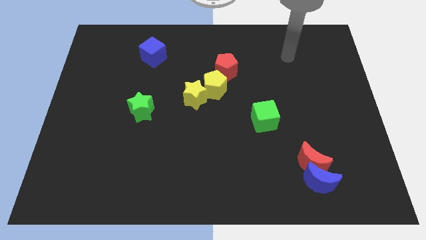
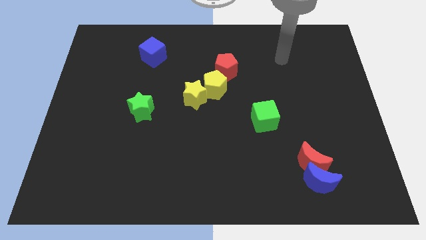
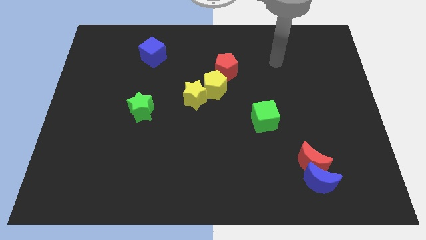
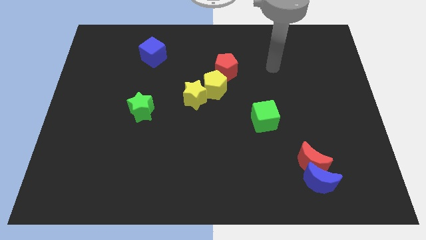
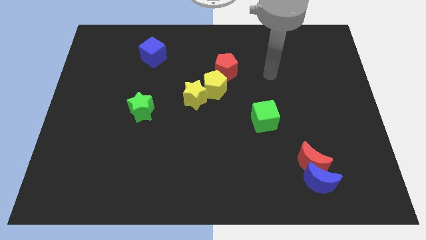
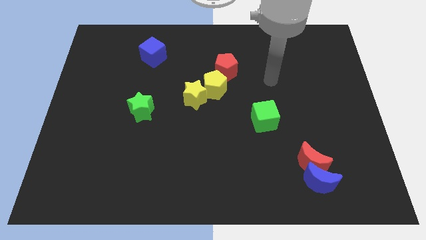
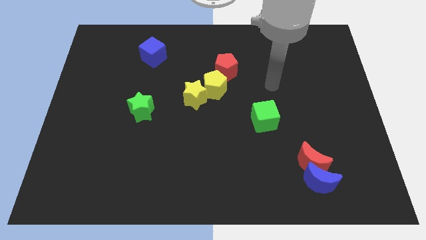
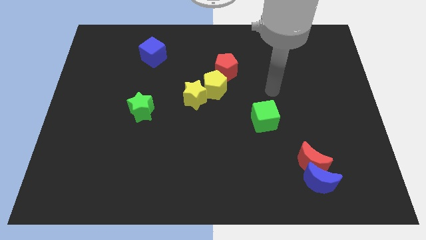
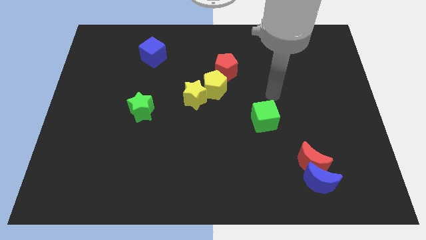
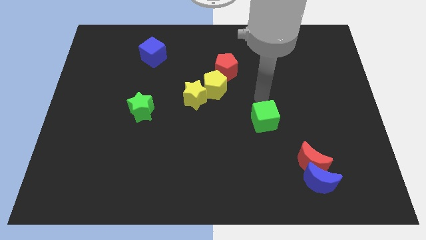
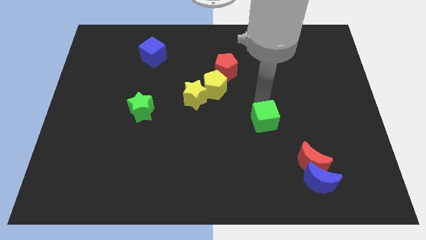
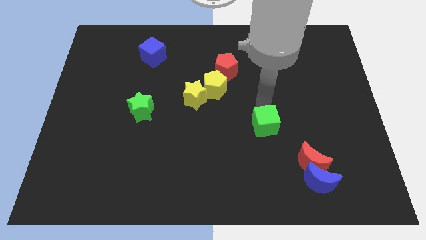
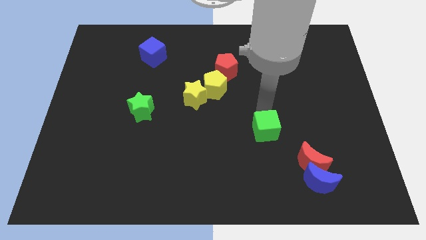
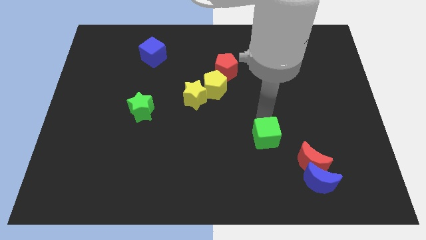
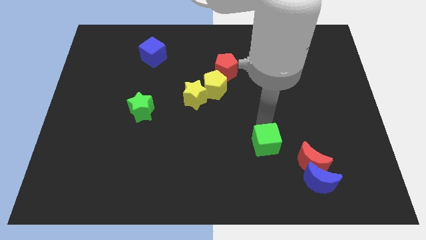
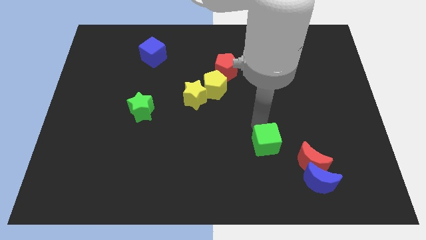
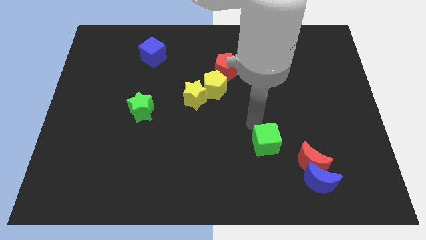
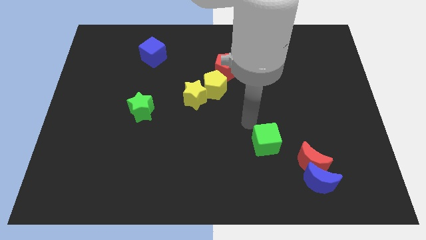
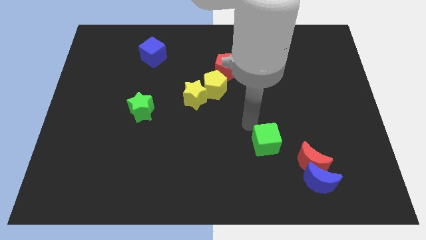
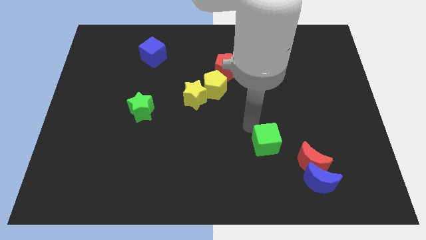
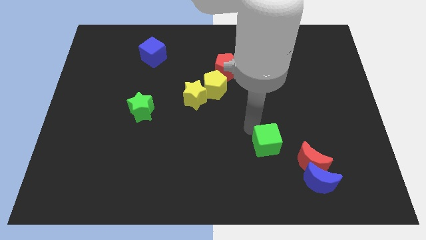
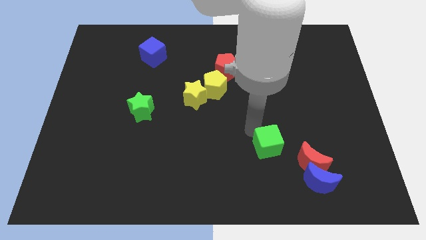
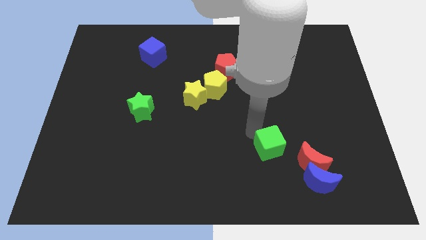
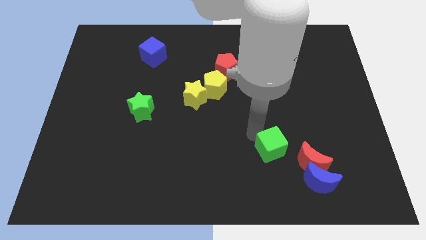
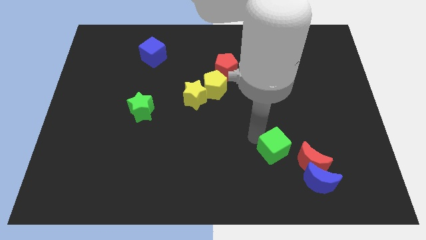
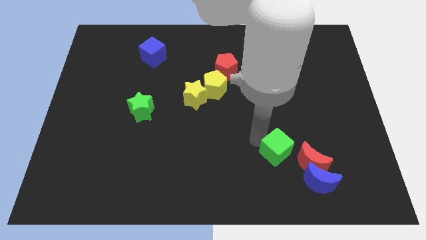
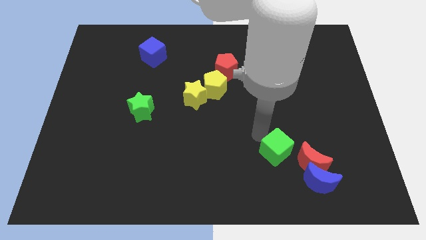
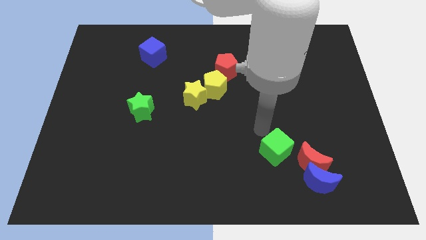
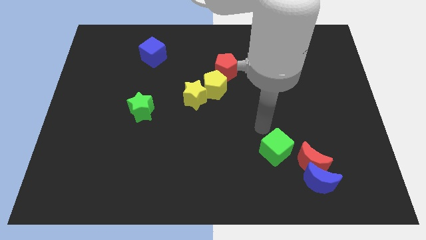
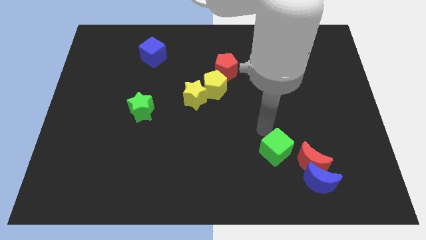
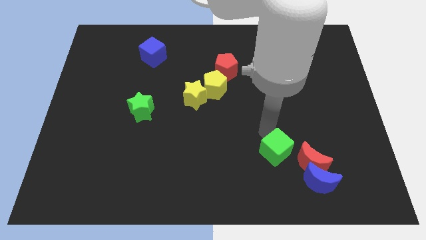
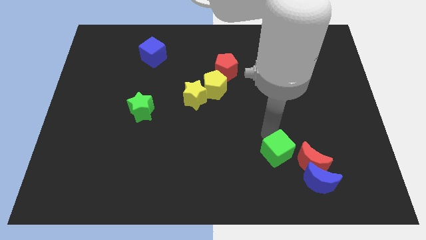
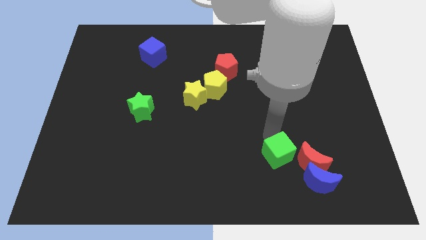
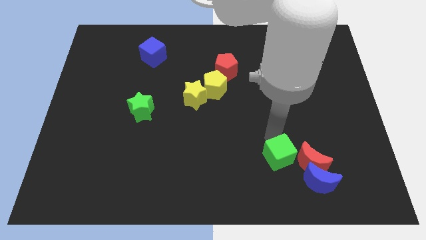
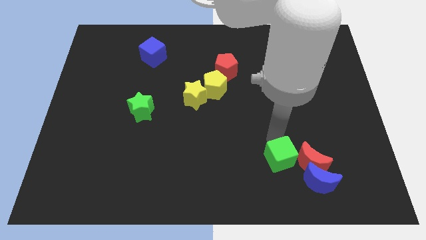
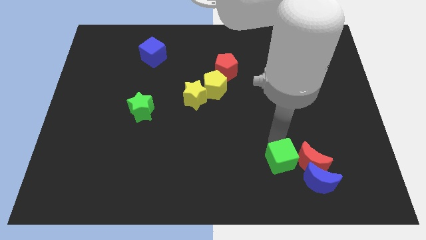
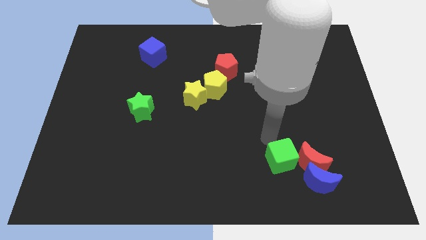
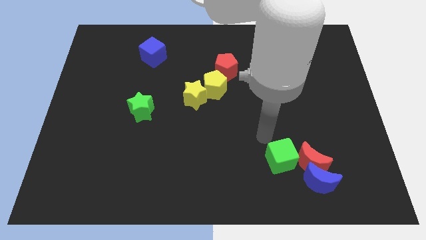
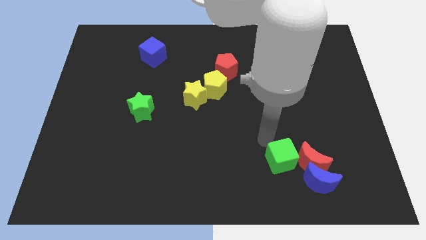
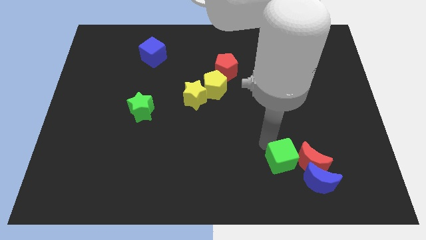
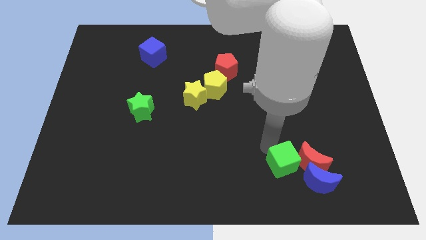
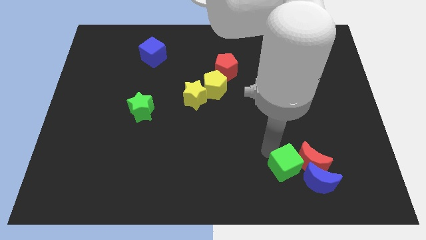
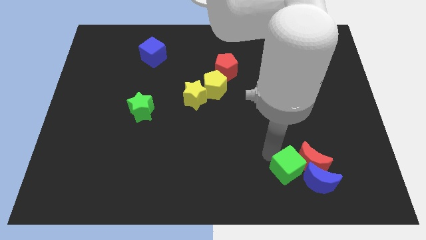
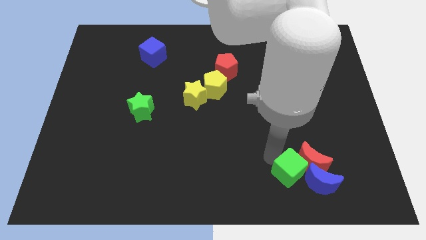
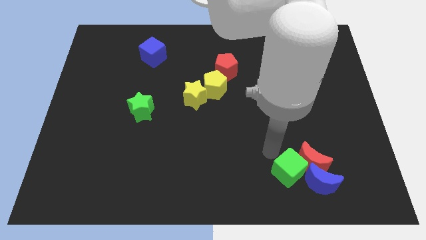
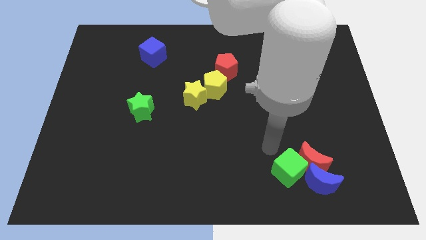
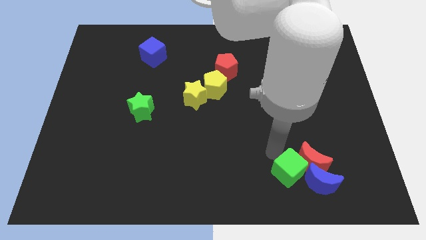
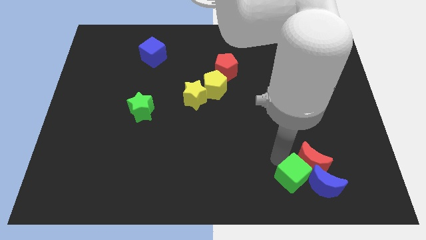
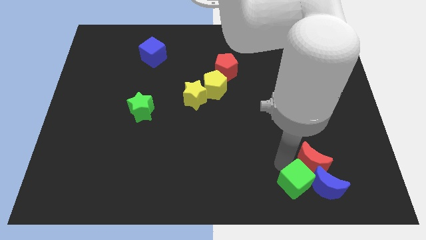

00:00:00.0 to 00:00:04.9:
put the green cube towards the blue moon

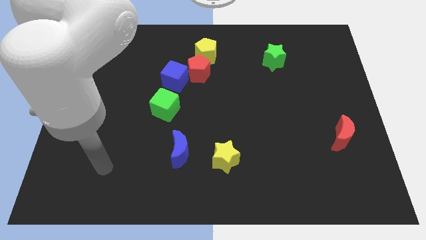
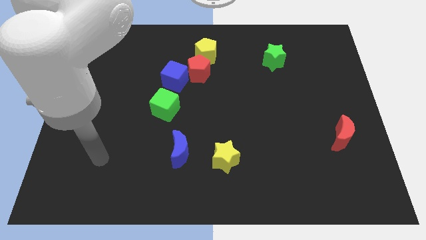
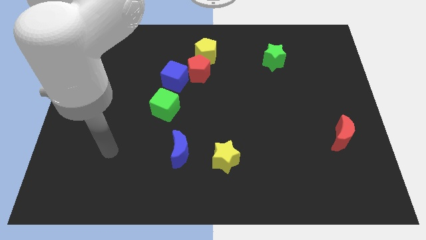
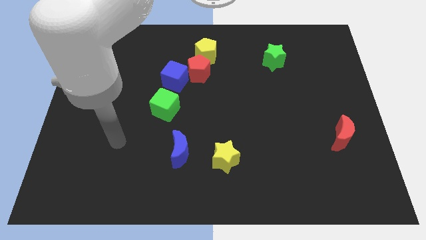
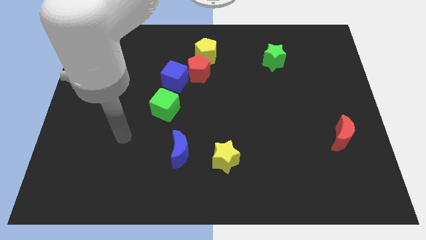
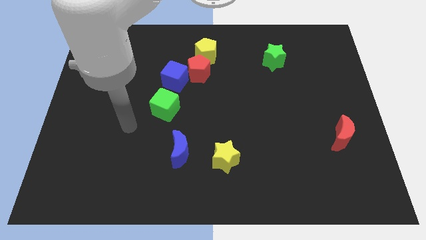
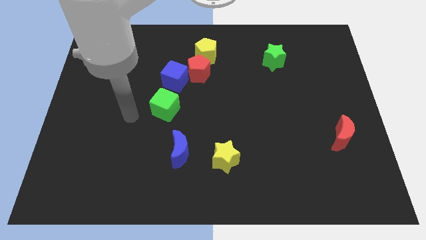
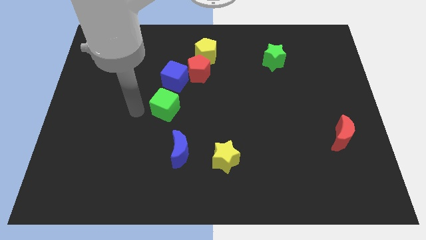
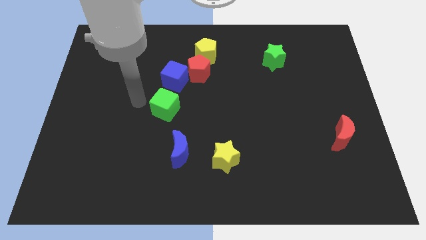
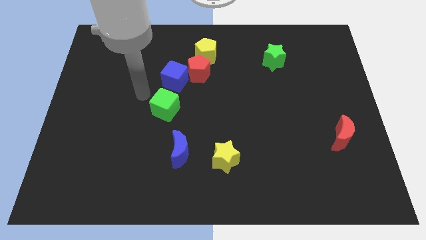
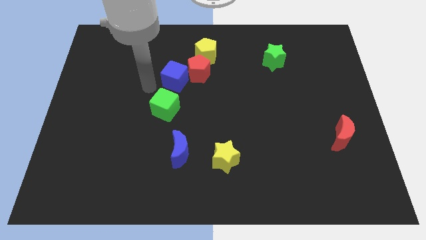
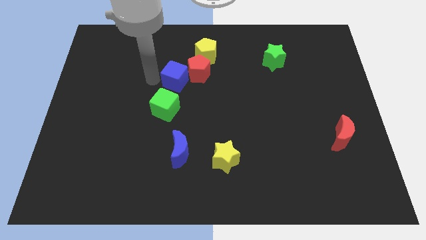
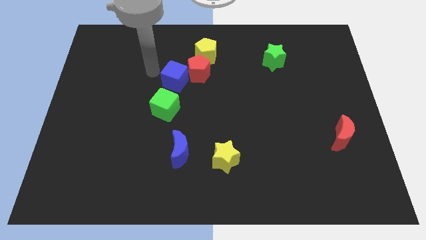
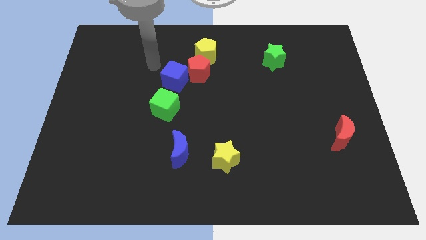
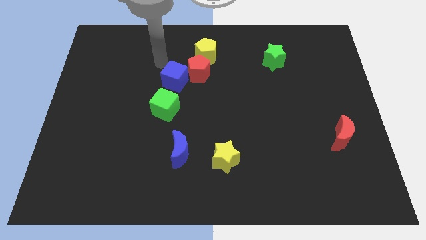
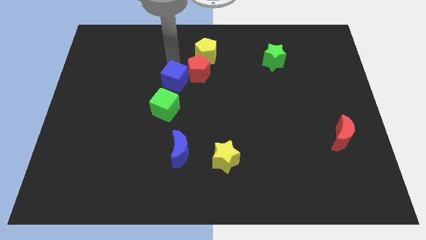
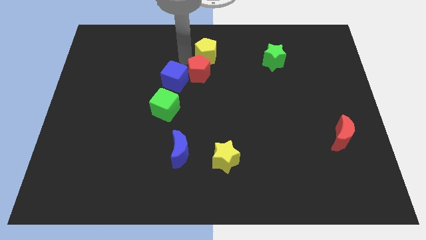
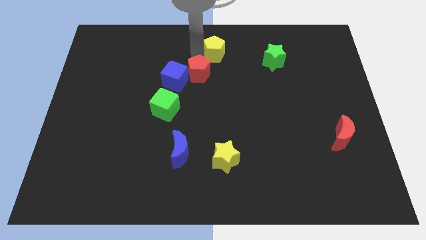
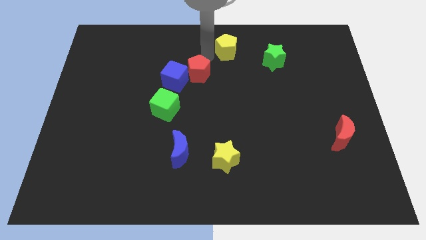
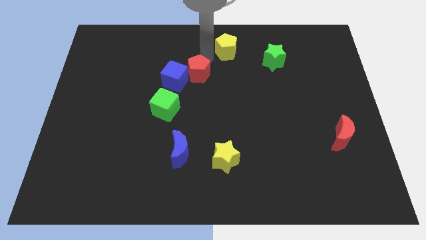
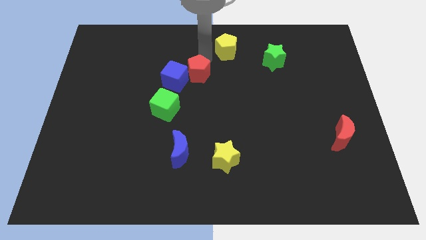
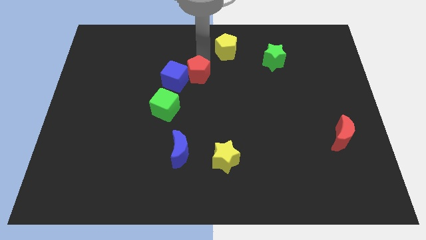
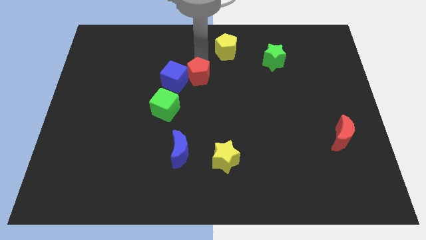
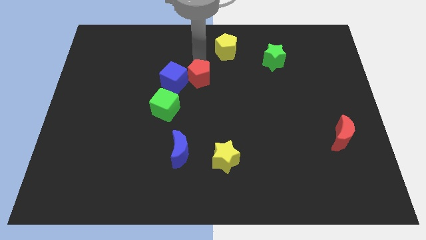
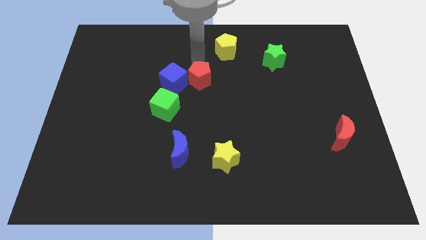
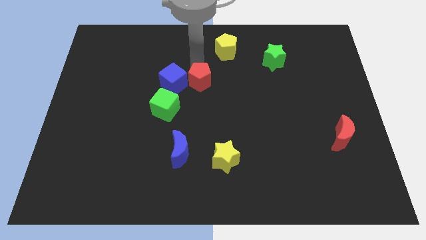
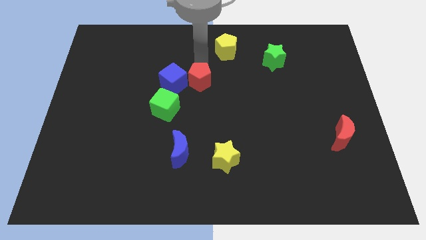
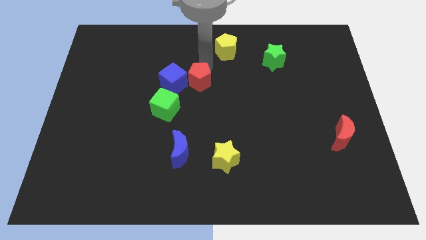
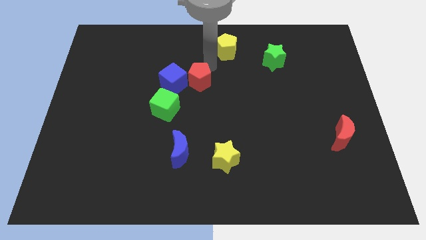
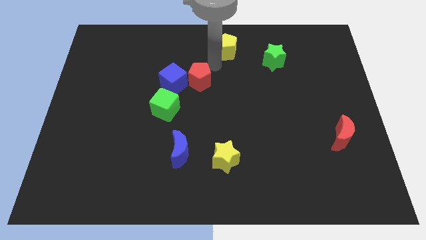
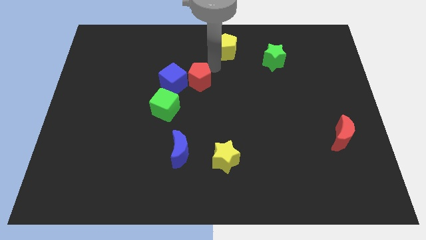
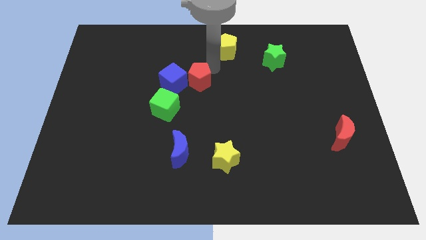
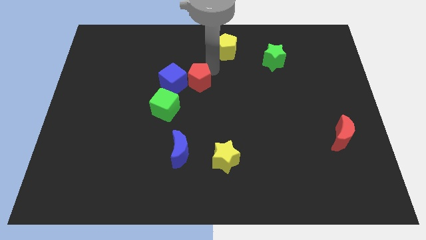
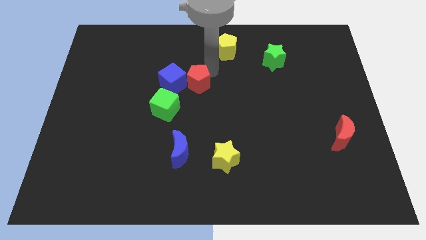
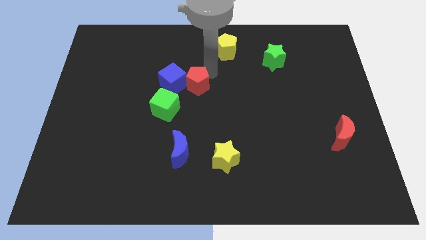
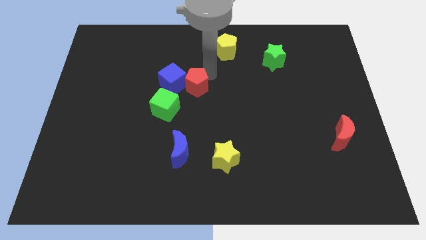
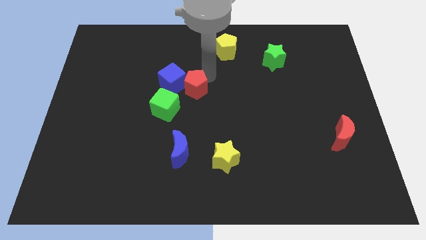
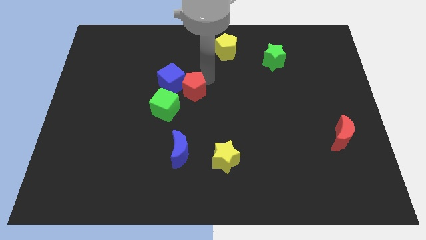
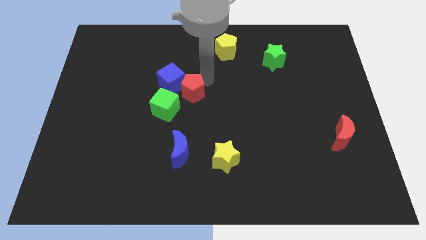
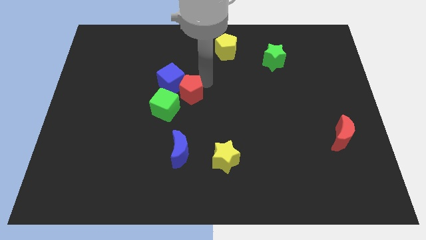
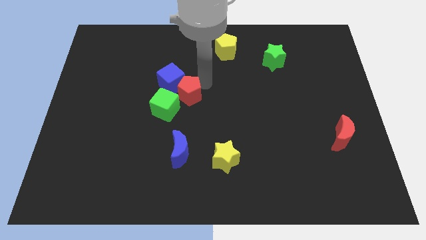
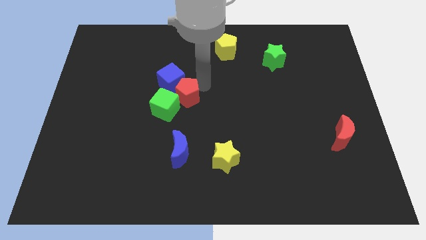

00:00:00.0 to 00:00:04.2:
push the red pentagon close to the green cube
